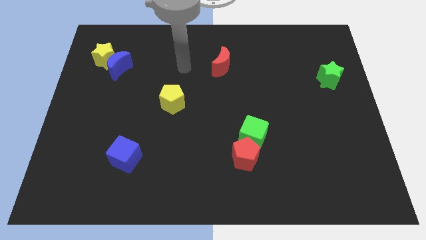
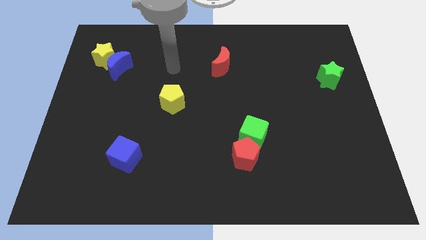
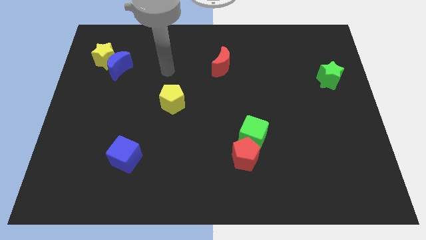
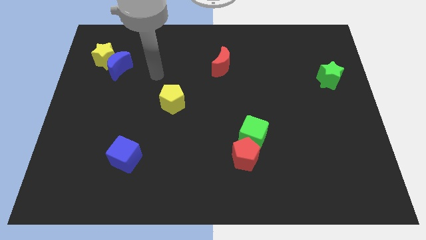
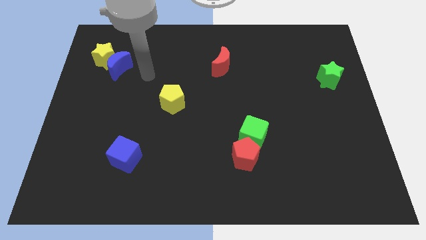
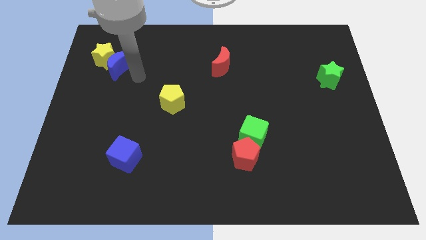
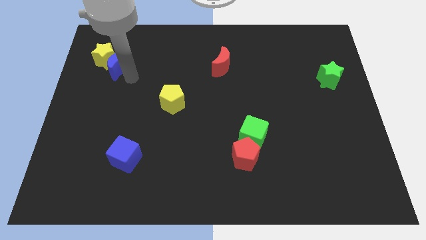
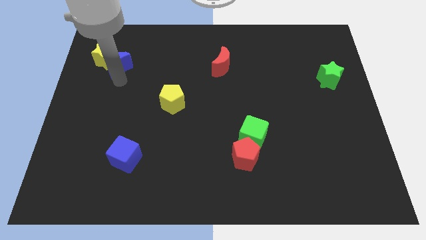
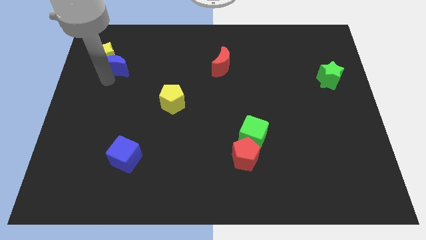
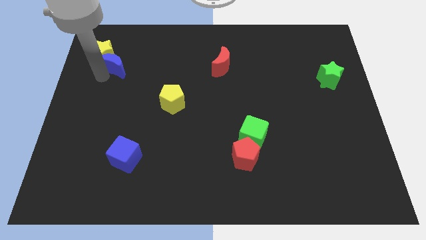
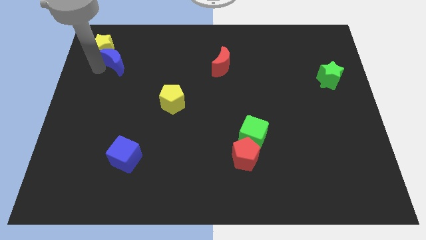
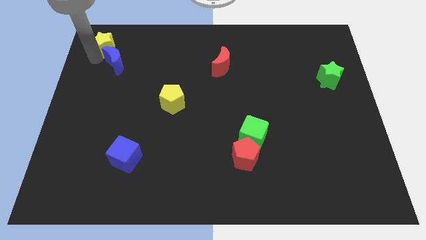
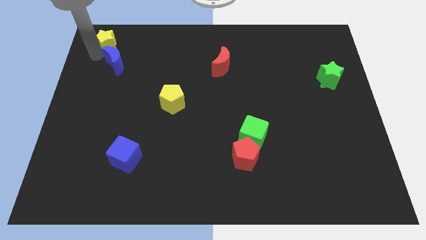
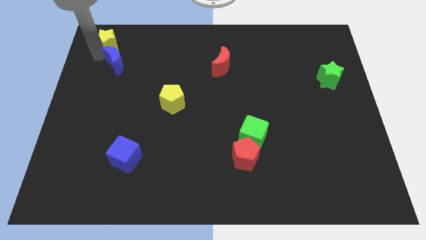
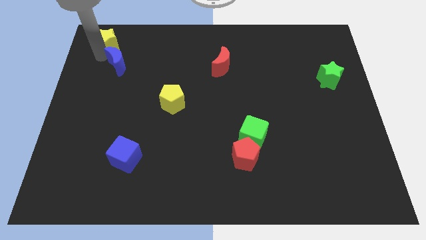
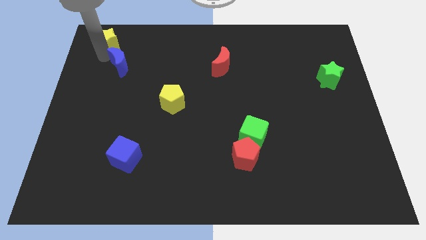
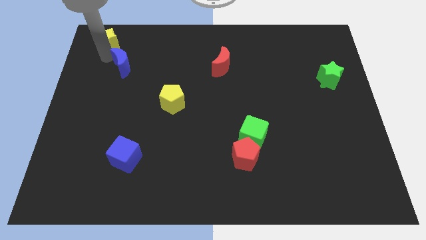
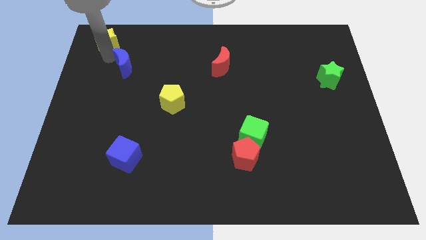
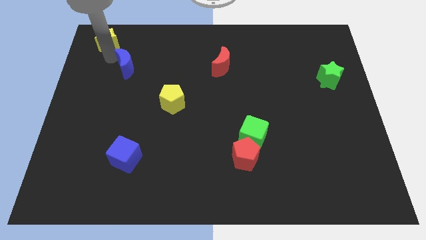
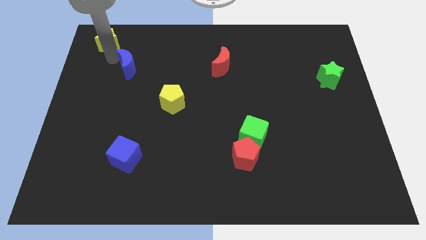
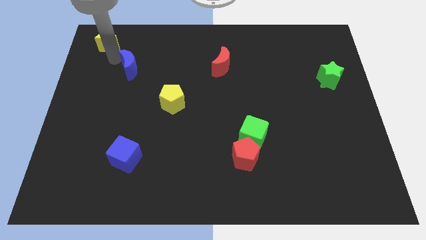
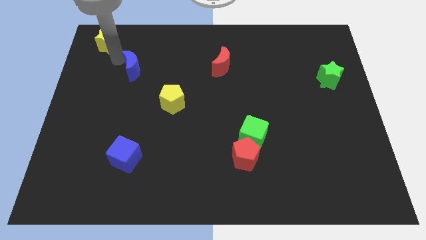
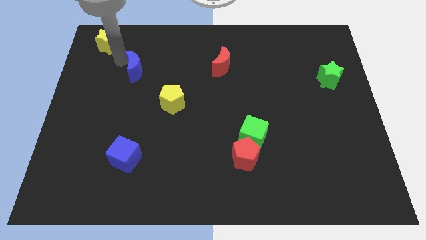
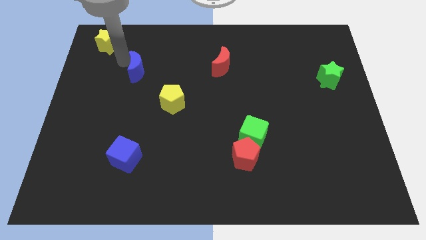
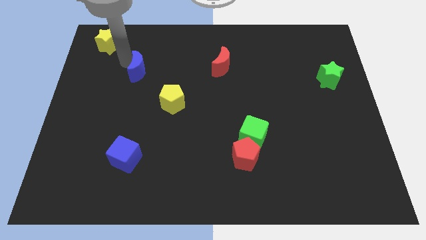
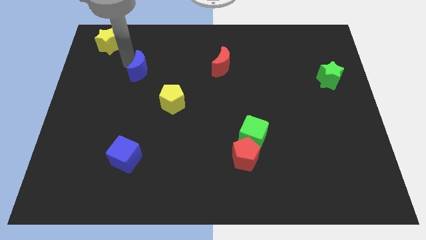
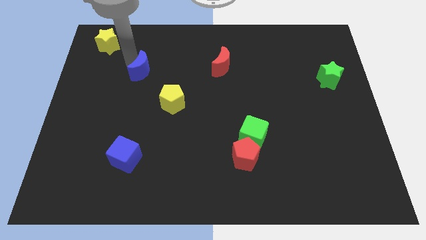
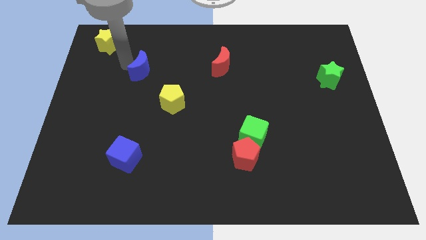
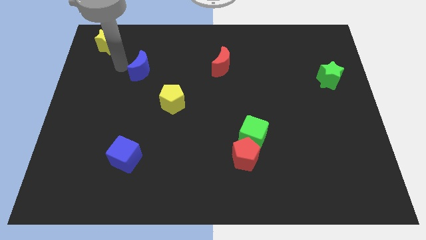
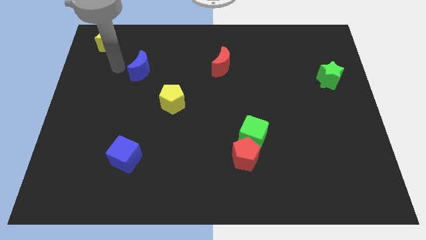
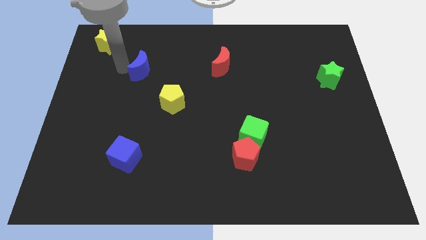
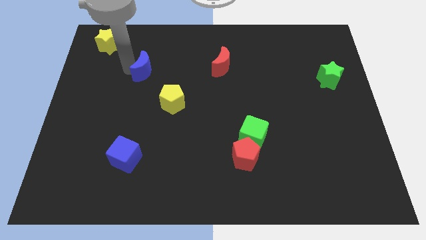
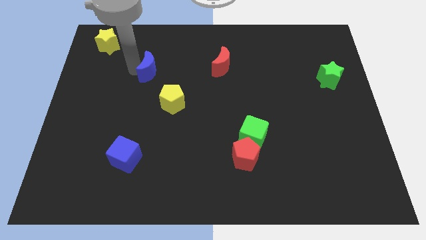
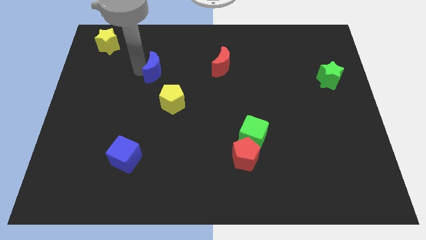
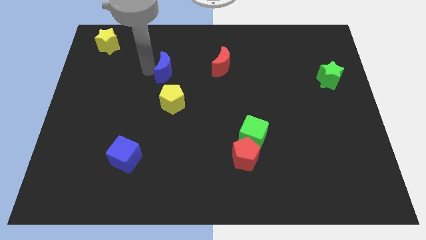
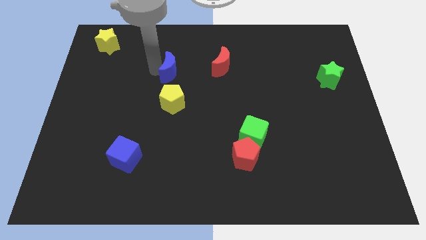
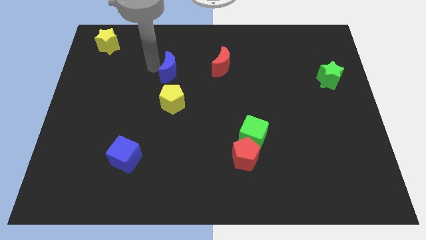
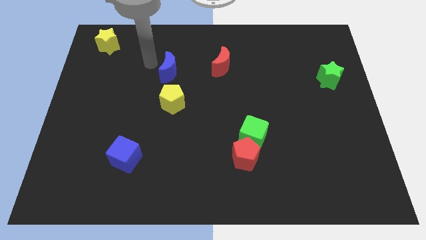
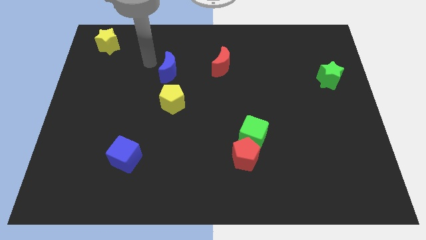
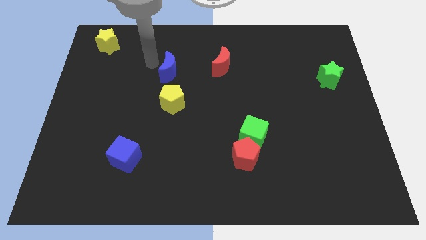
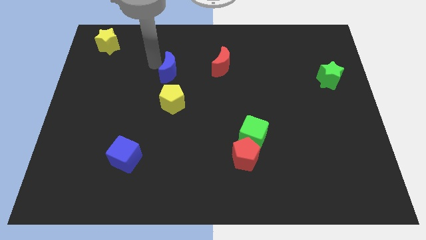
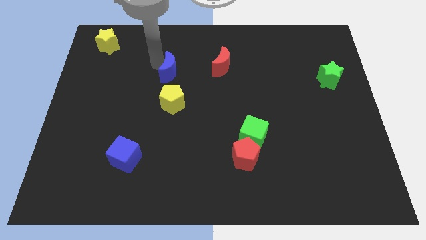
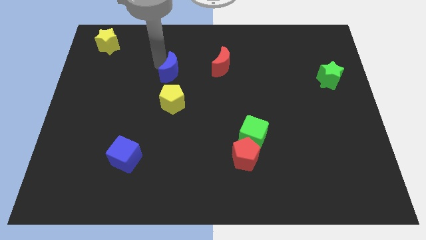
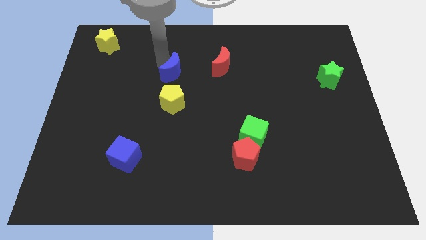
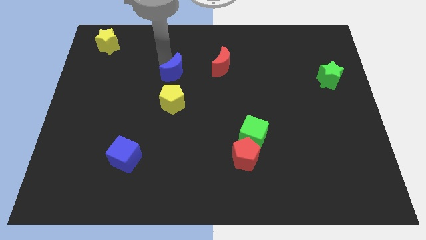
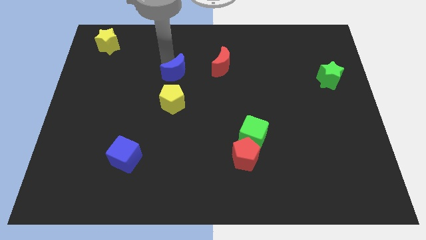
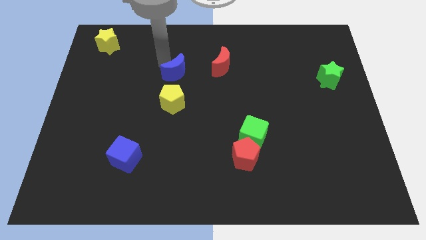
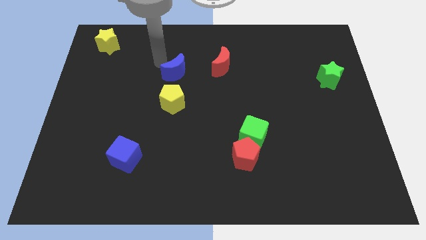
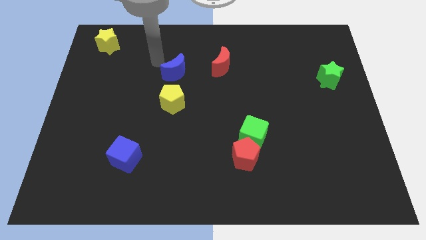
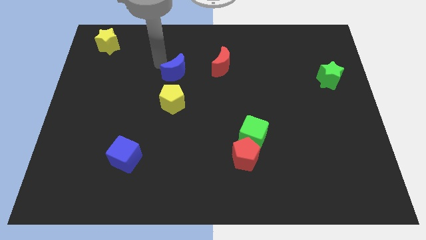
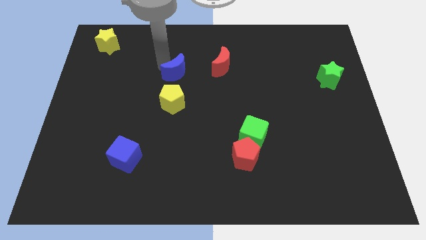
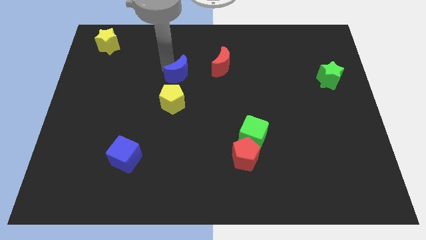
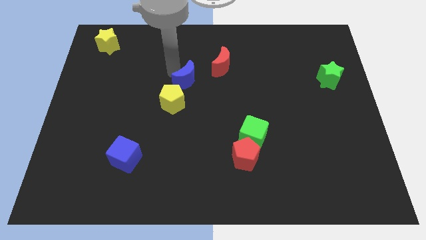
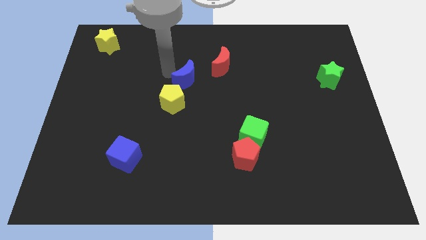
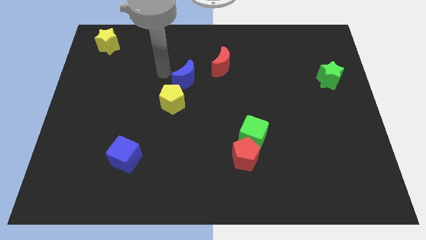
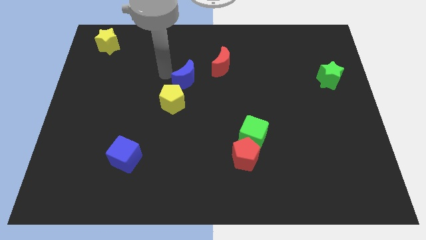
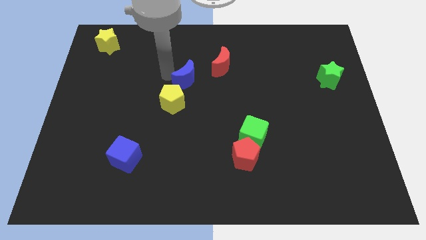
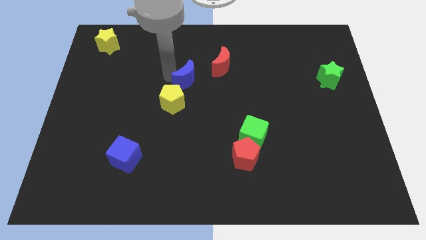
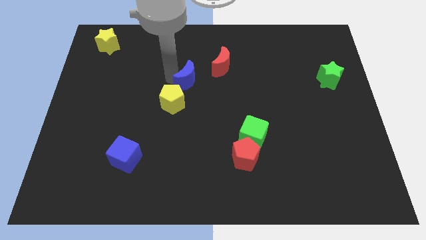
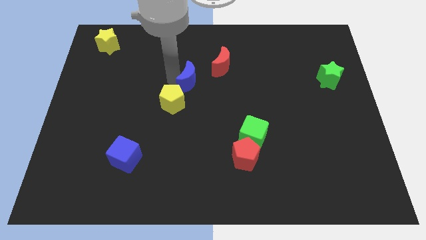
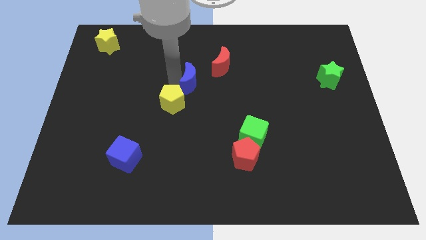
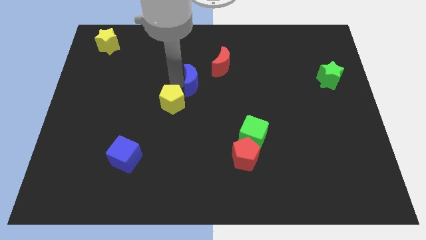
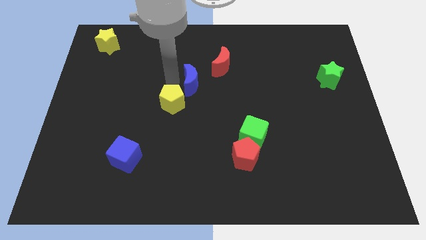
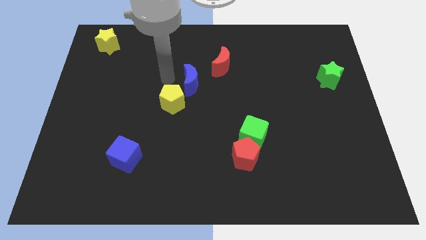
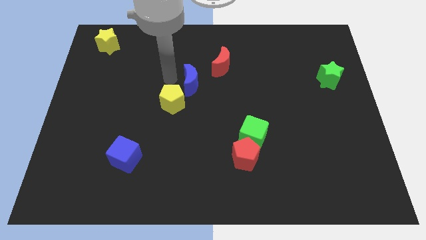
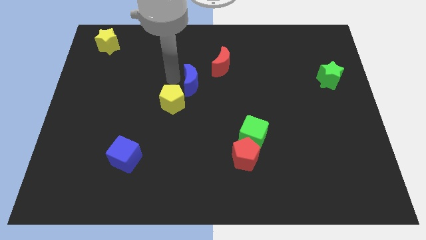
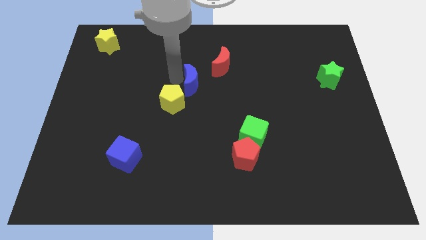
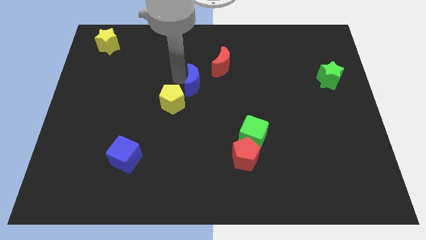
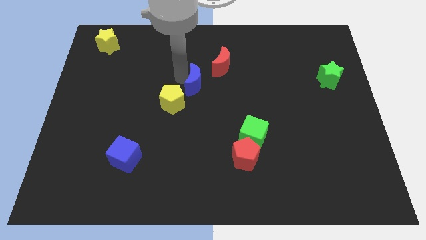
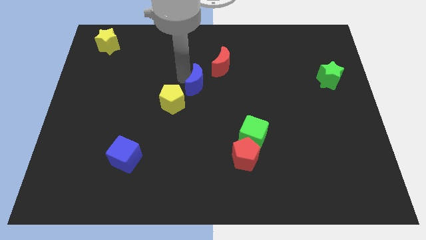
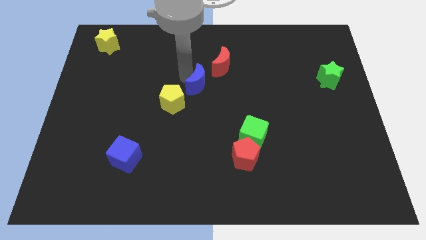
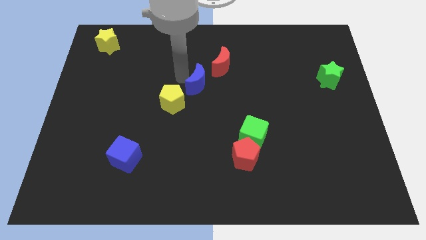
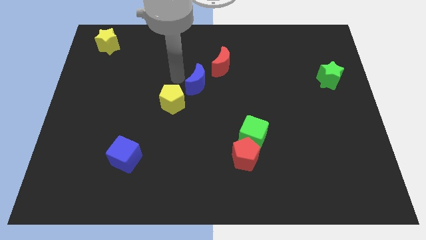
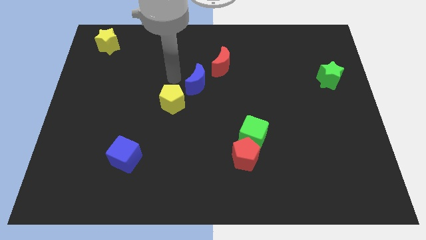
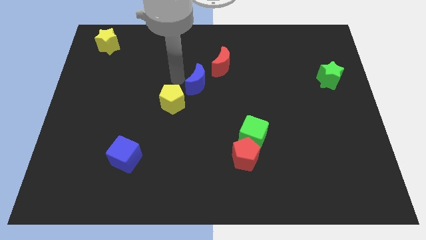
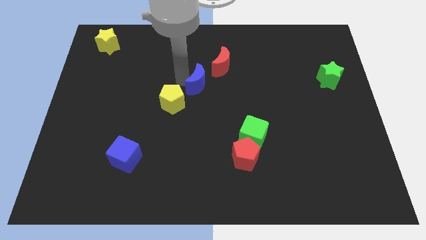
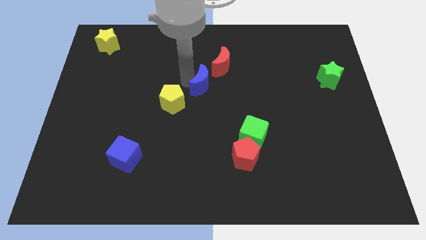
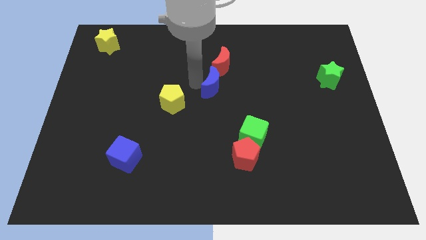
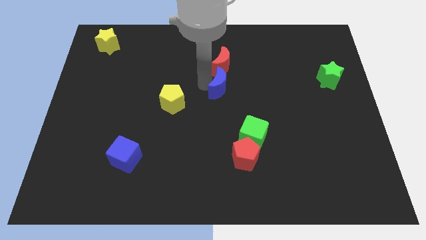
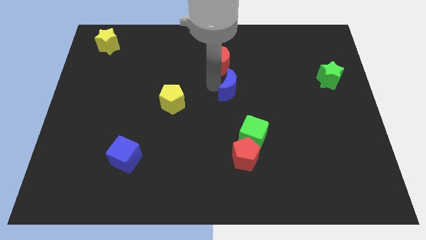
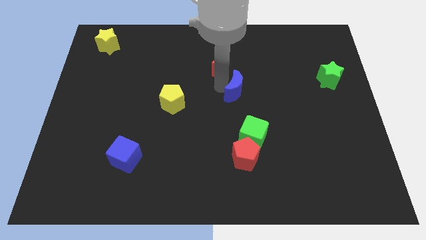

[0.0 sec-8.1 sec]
move the blue moon to the top of the green cube
